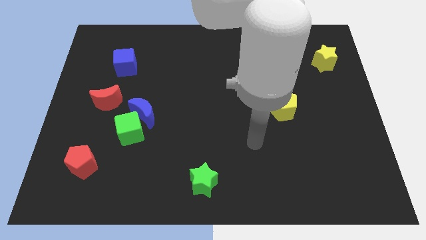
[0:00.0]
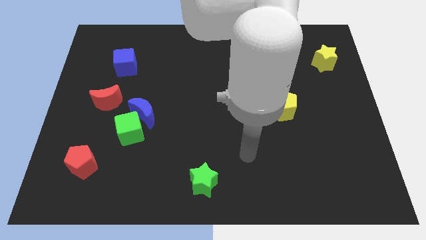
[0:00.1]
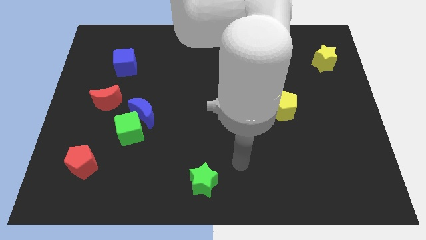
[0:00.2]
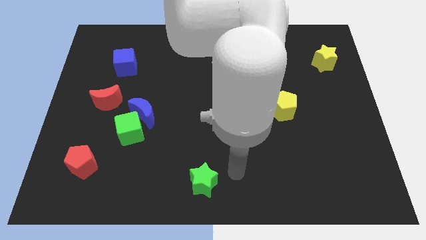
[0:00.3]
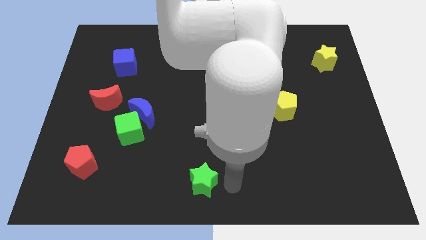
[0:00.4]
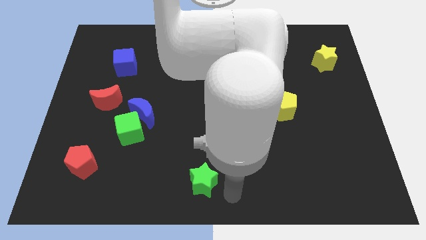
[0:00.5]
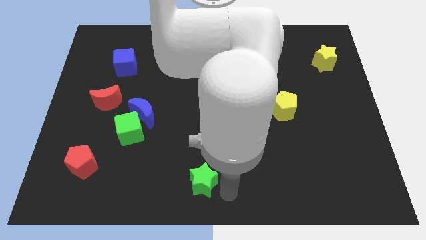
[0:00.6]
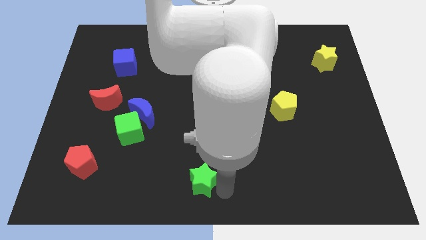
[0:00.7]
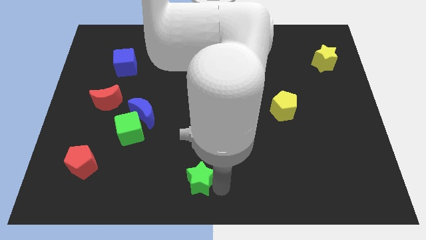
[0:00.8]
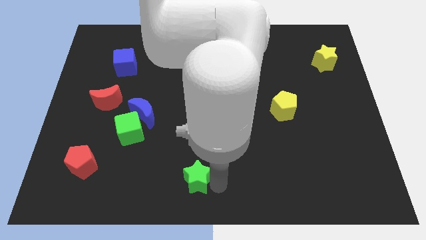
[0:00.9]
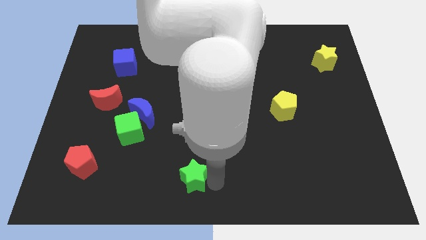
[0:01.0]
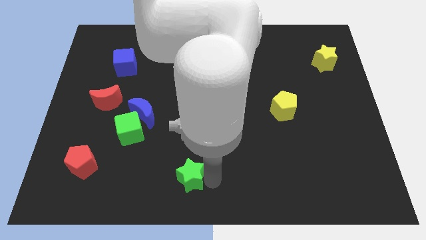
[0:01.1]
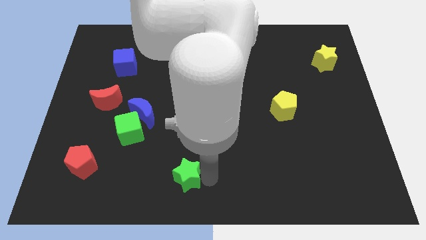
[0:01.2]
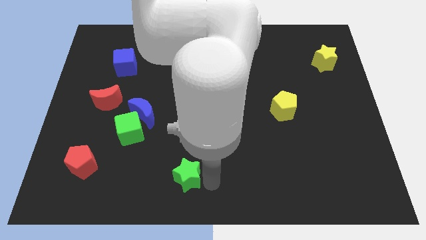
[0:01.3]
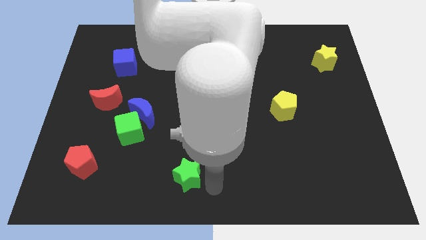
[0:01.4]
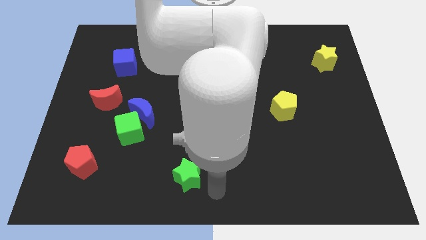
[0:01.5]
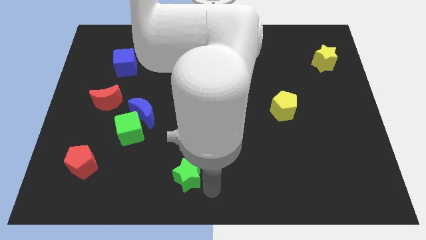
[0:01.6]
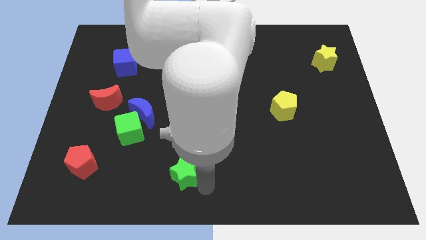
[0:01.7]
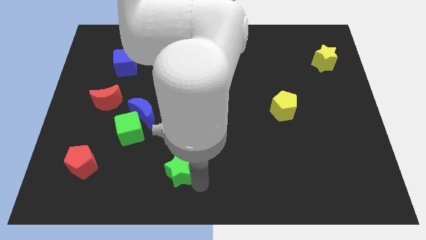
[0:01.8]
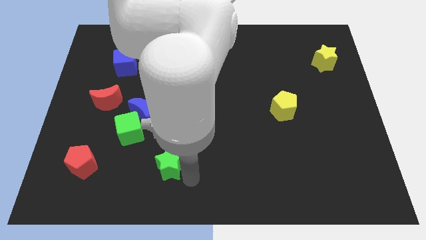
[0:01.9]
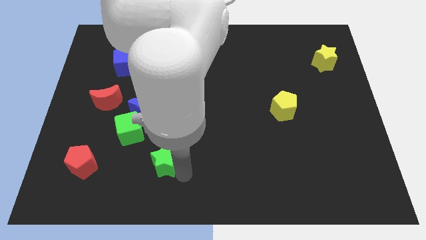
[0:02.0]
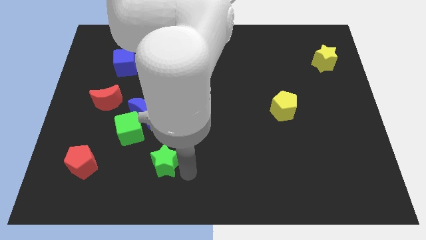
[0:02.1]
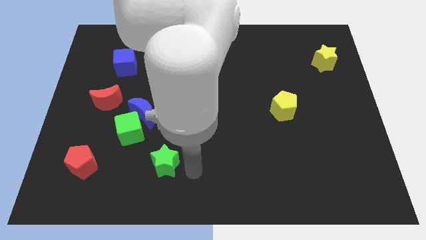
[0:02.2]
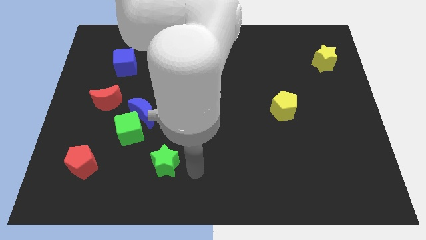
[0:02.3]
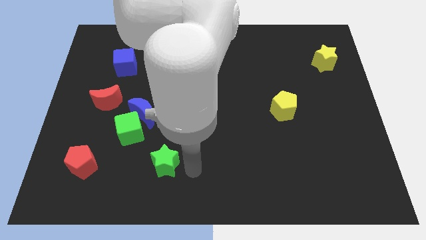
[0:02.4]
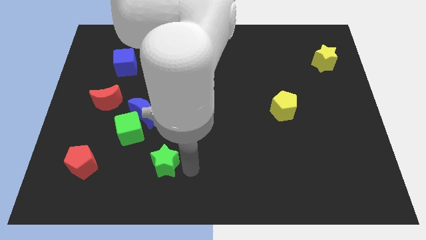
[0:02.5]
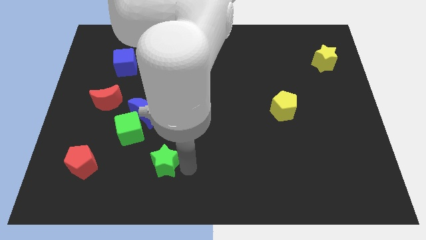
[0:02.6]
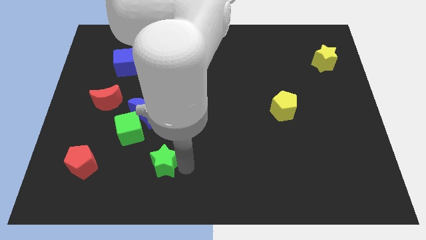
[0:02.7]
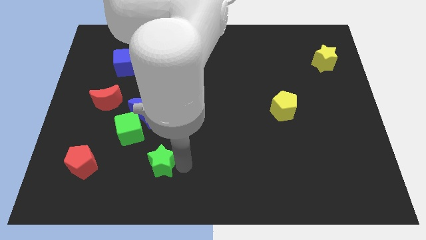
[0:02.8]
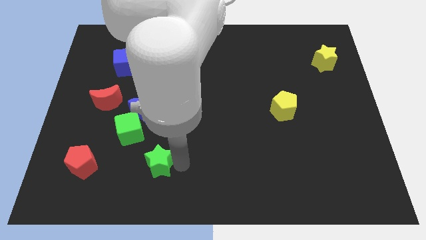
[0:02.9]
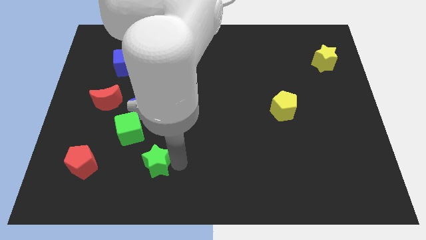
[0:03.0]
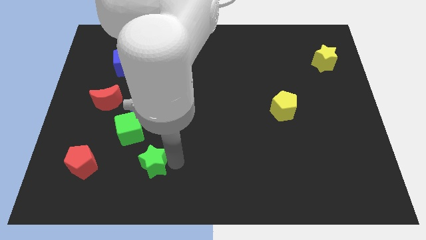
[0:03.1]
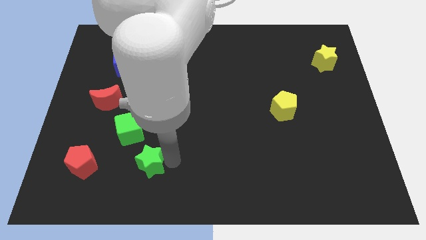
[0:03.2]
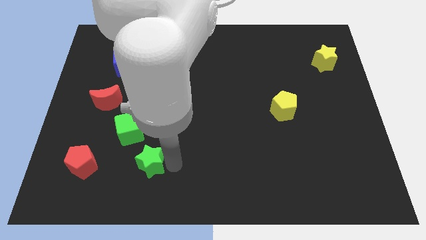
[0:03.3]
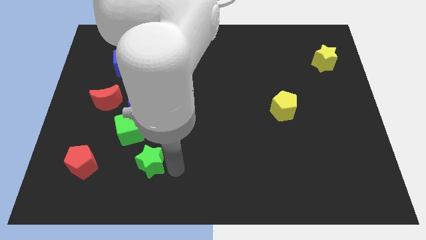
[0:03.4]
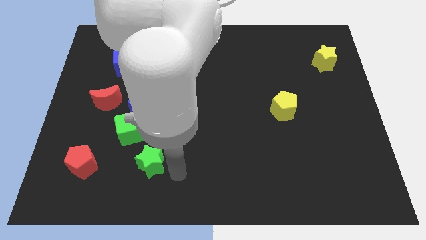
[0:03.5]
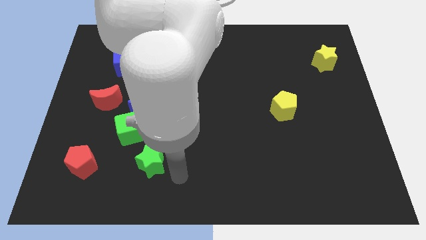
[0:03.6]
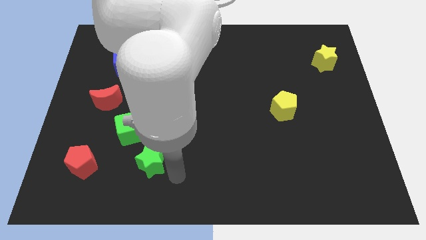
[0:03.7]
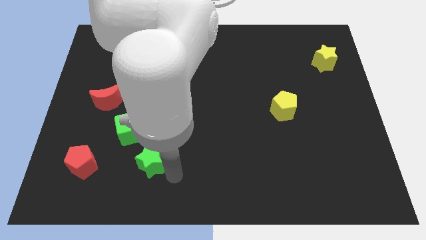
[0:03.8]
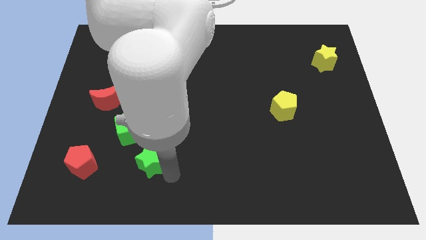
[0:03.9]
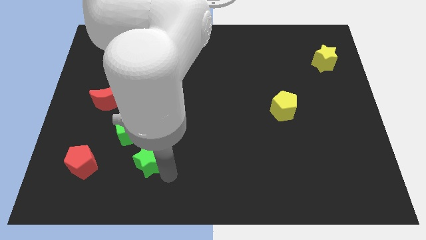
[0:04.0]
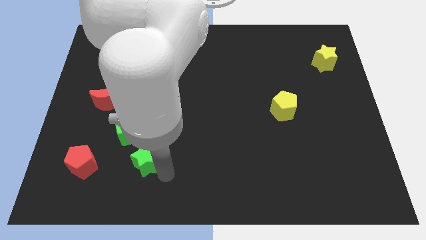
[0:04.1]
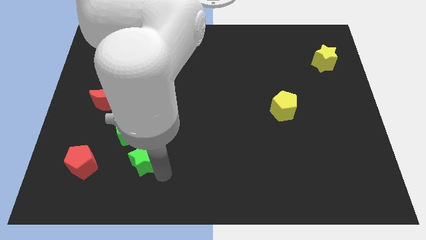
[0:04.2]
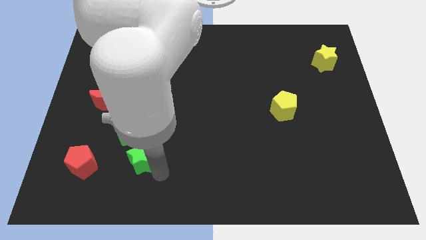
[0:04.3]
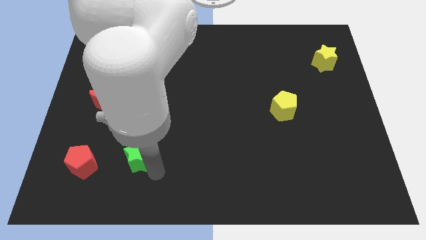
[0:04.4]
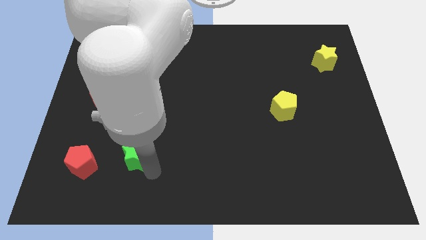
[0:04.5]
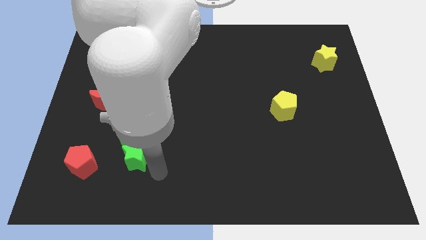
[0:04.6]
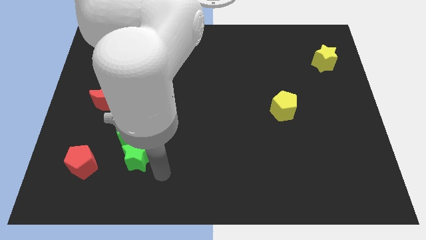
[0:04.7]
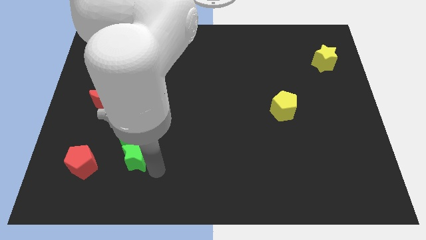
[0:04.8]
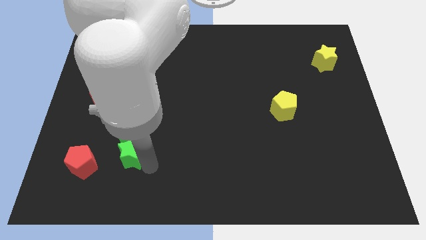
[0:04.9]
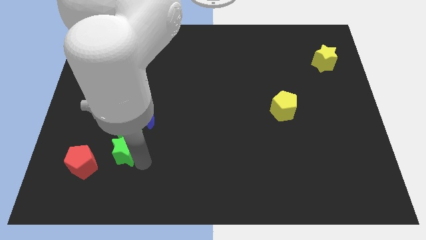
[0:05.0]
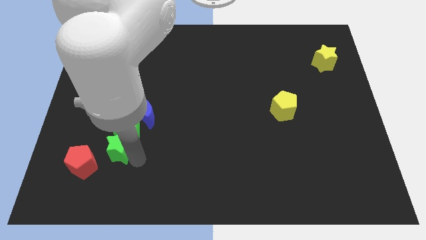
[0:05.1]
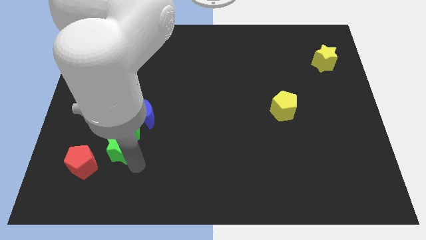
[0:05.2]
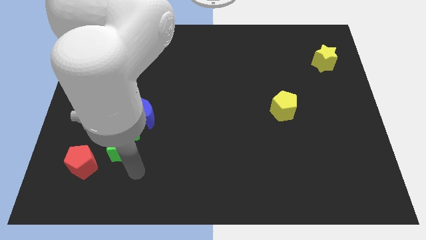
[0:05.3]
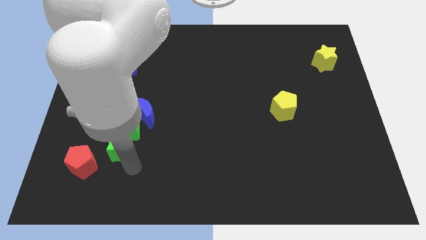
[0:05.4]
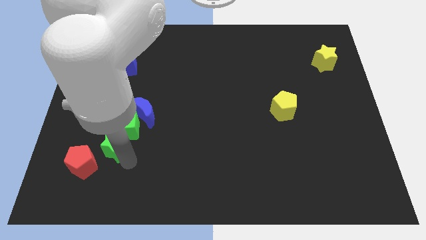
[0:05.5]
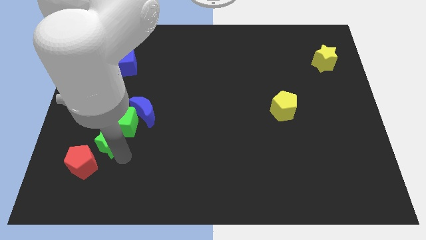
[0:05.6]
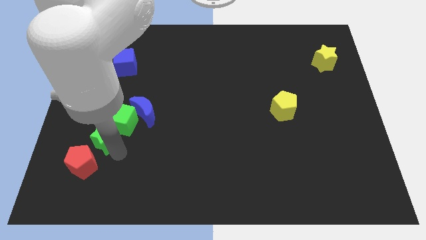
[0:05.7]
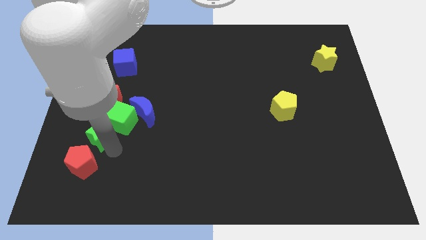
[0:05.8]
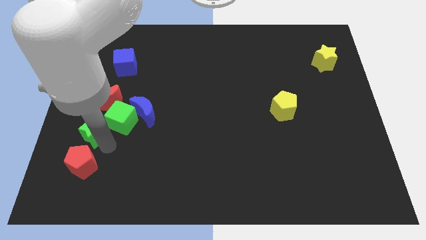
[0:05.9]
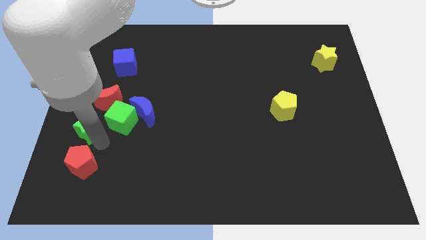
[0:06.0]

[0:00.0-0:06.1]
slide the green star to the left of the blue moon

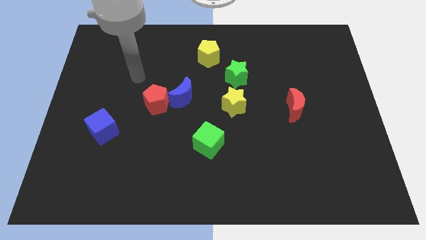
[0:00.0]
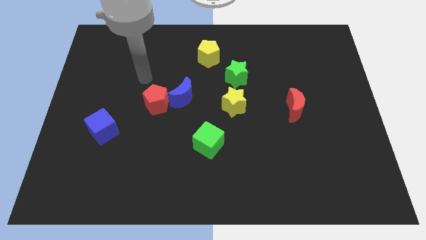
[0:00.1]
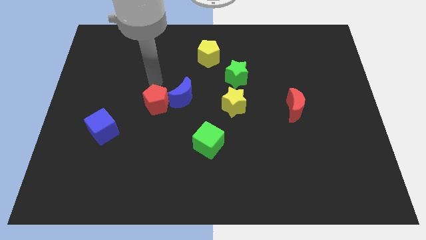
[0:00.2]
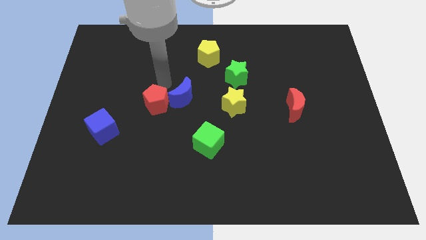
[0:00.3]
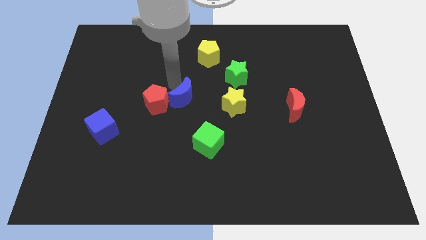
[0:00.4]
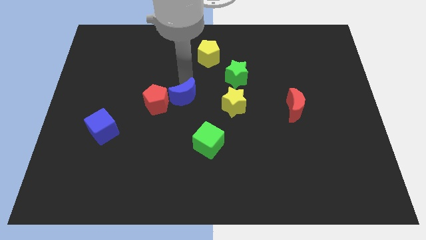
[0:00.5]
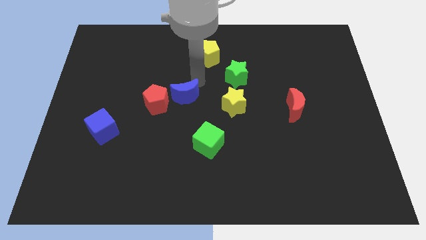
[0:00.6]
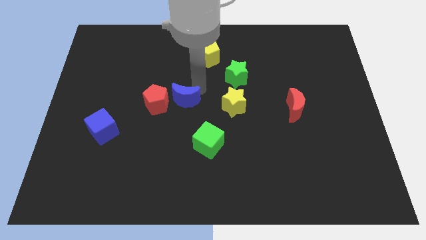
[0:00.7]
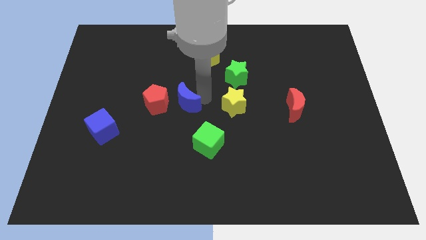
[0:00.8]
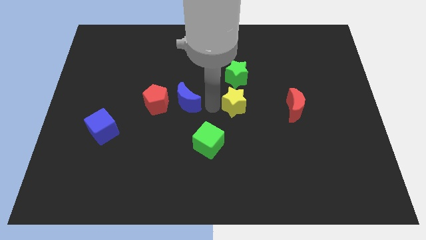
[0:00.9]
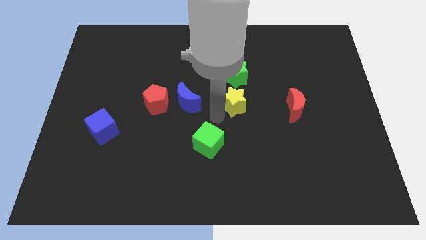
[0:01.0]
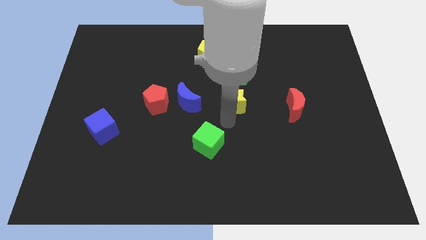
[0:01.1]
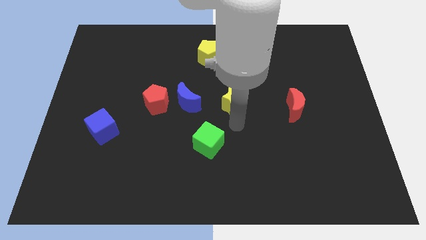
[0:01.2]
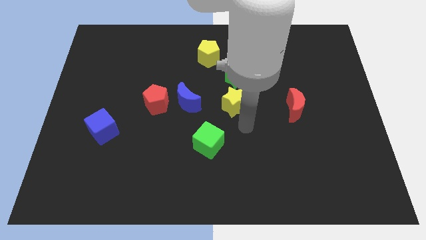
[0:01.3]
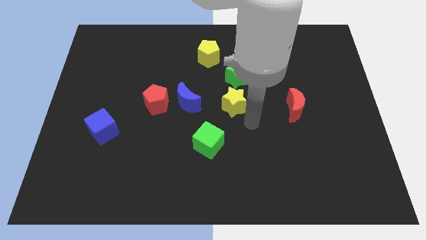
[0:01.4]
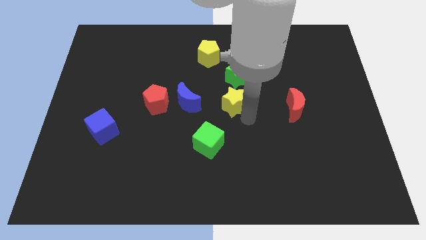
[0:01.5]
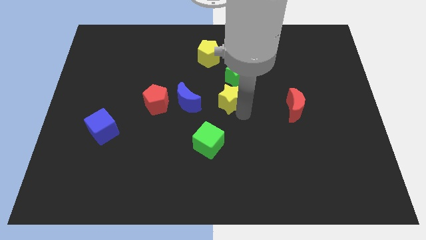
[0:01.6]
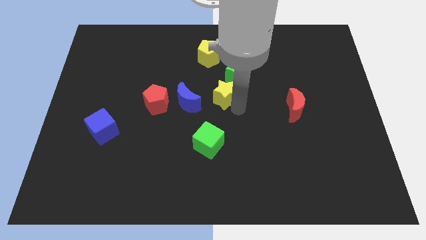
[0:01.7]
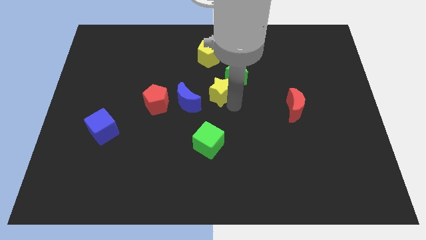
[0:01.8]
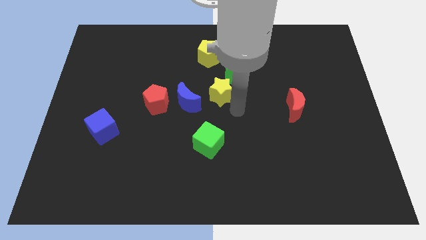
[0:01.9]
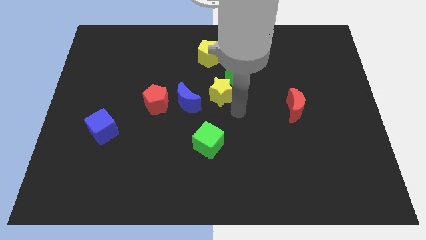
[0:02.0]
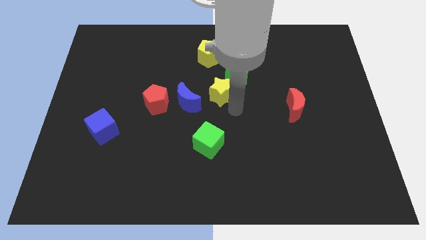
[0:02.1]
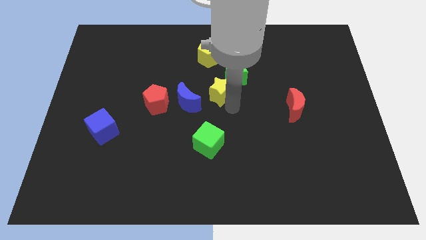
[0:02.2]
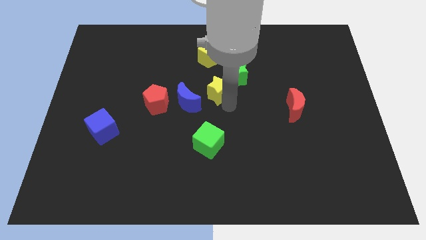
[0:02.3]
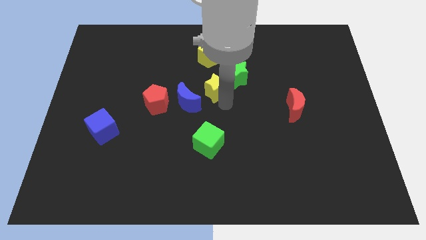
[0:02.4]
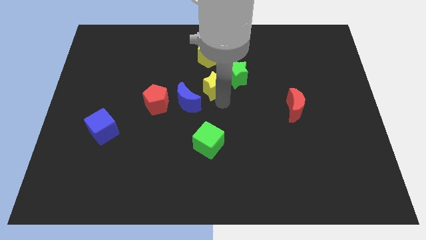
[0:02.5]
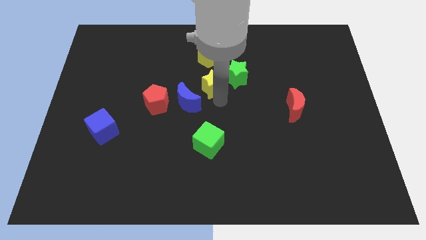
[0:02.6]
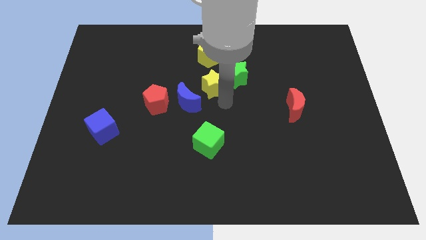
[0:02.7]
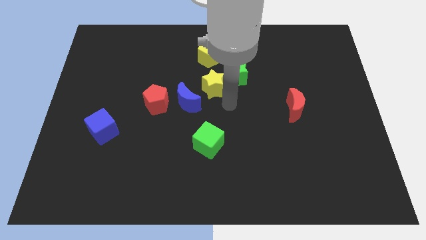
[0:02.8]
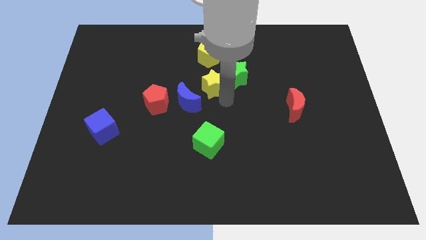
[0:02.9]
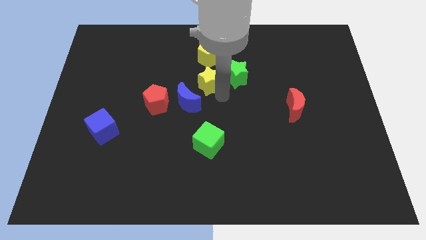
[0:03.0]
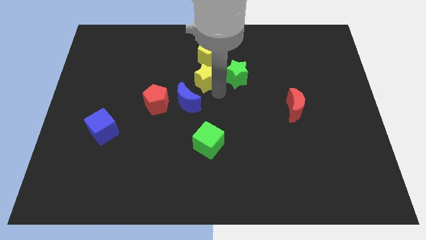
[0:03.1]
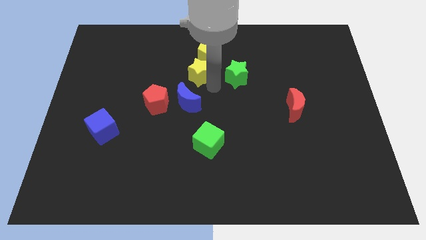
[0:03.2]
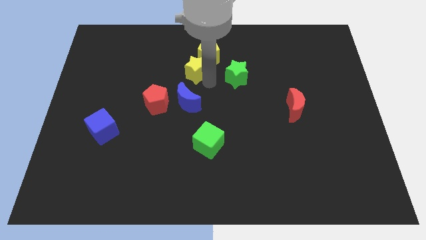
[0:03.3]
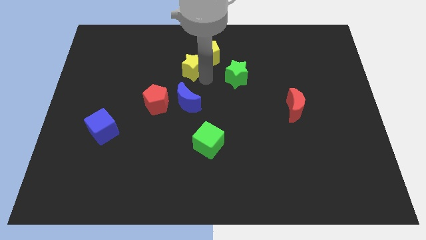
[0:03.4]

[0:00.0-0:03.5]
move the yellow star to the left of the yellow pentagon
